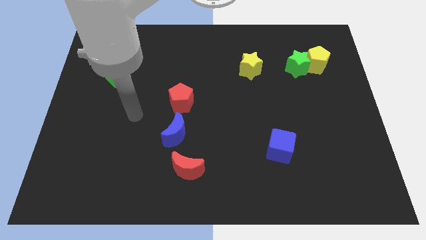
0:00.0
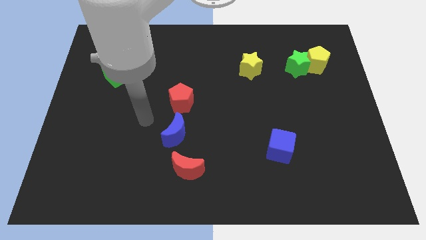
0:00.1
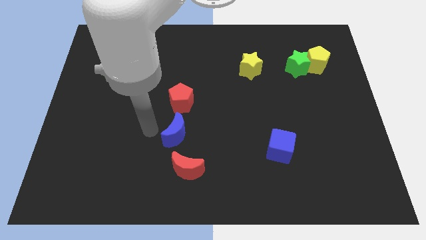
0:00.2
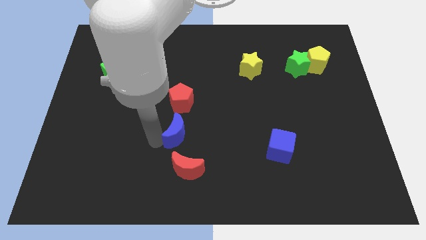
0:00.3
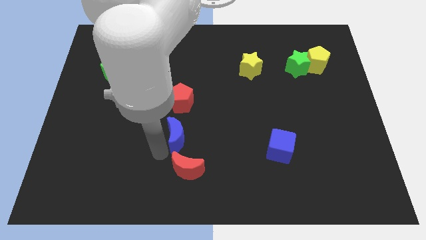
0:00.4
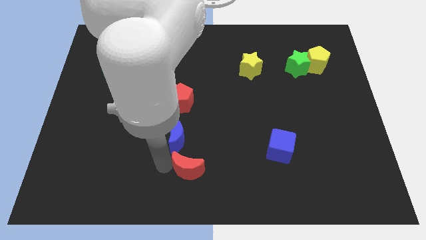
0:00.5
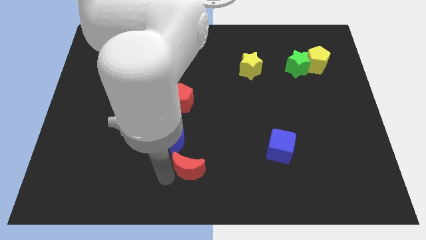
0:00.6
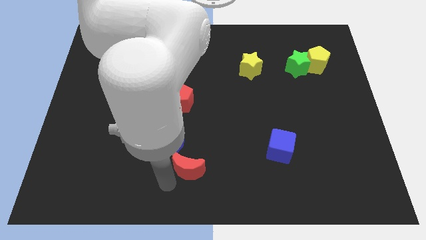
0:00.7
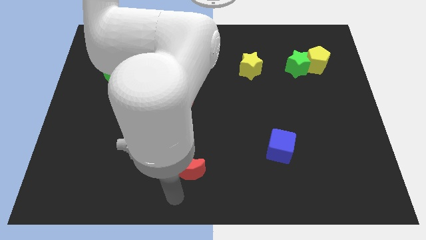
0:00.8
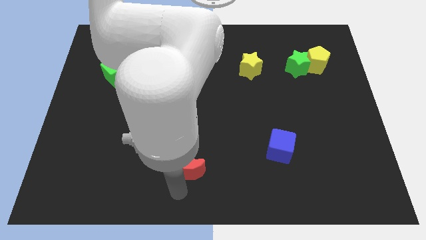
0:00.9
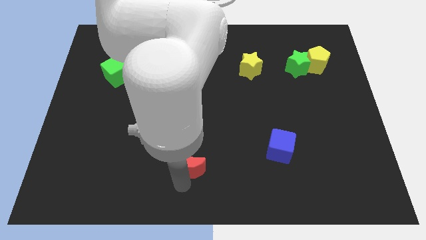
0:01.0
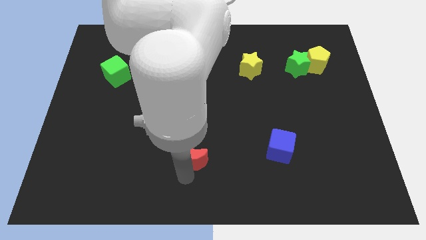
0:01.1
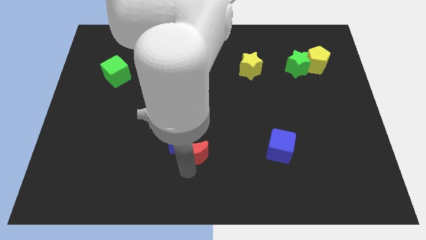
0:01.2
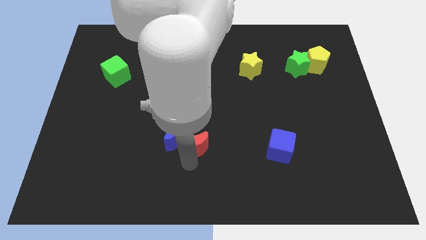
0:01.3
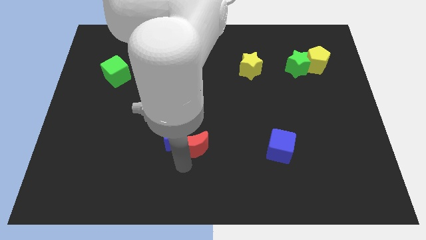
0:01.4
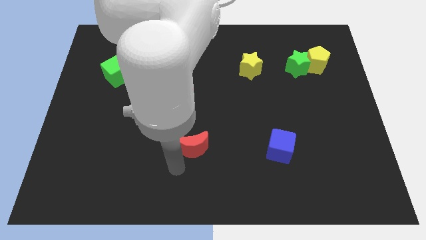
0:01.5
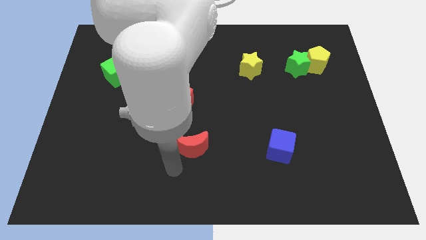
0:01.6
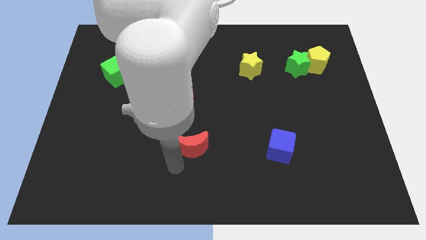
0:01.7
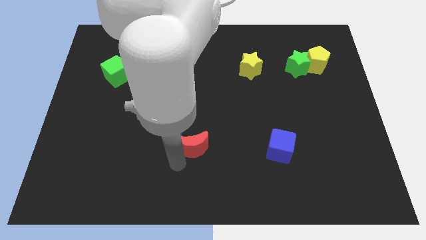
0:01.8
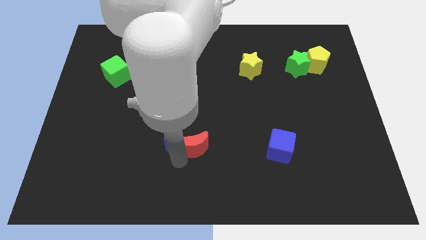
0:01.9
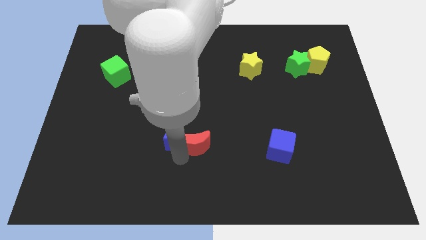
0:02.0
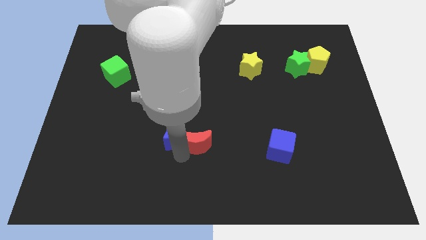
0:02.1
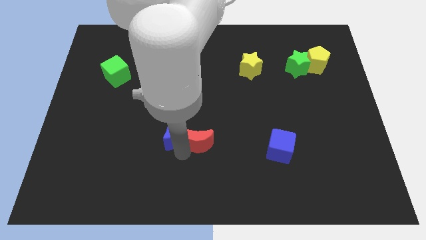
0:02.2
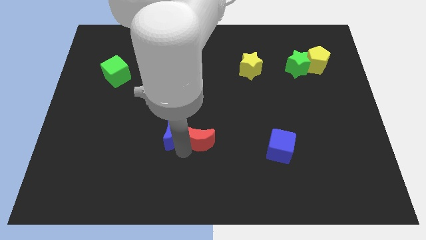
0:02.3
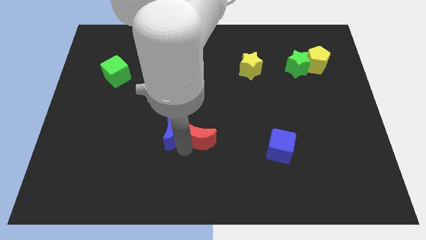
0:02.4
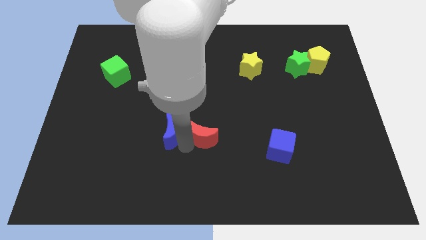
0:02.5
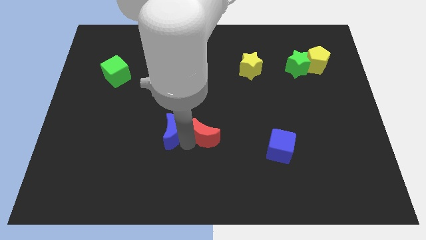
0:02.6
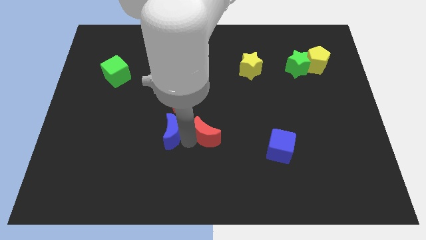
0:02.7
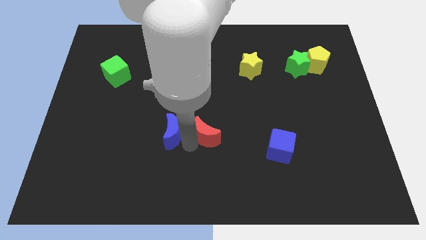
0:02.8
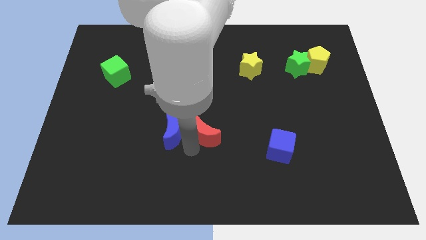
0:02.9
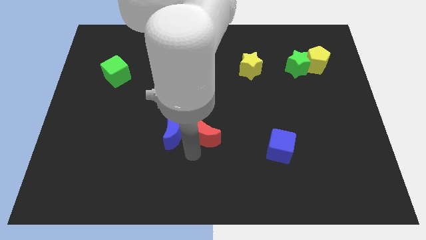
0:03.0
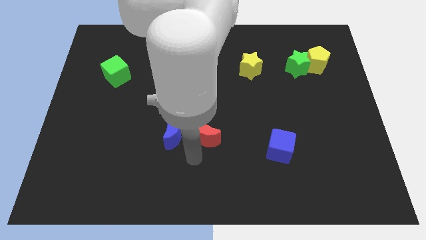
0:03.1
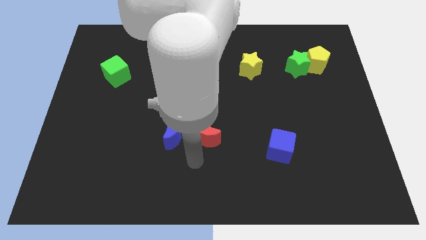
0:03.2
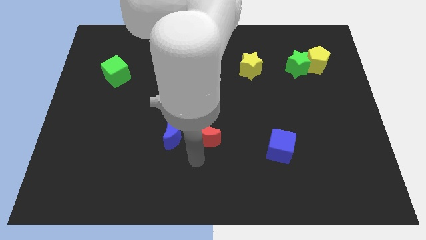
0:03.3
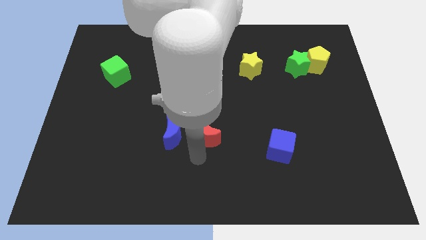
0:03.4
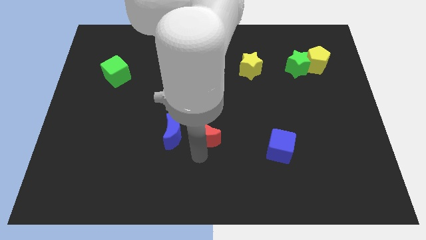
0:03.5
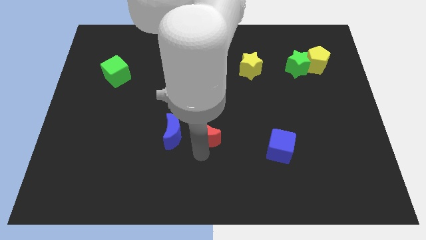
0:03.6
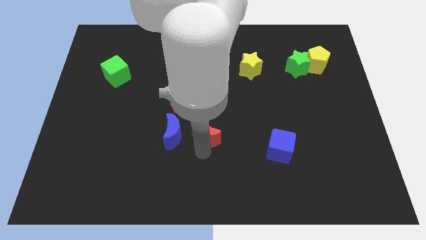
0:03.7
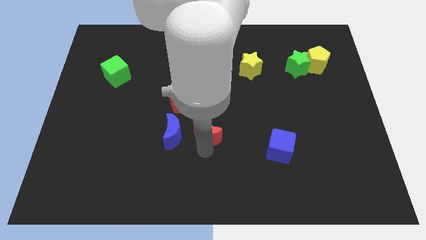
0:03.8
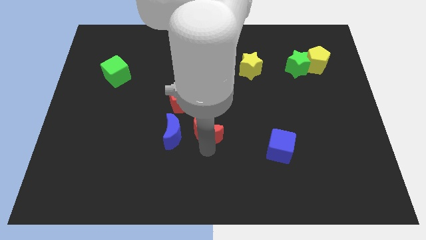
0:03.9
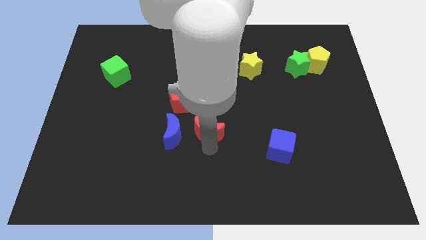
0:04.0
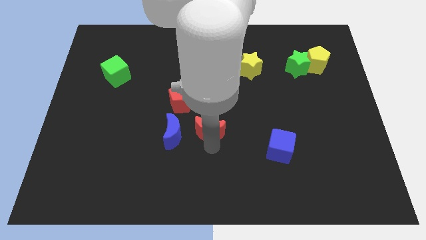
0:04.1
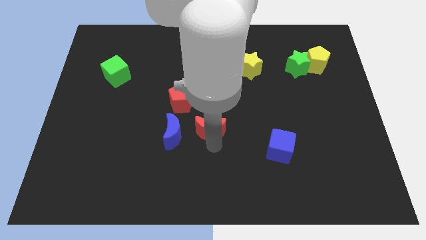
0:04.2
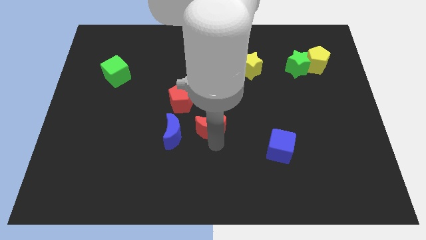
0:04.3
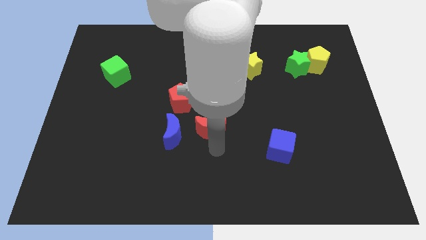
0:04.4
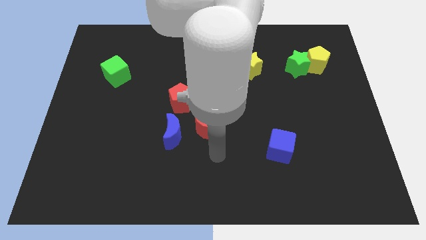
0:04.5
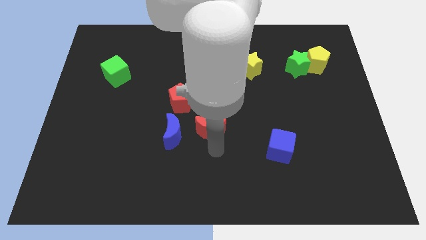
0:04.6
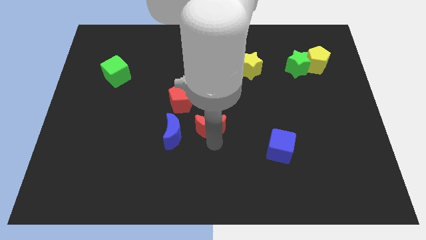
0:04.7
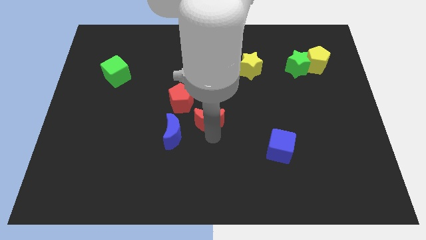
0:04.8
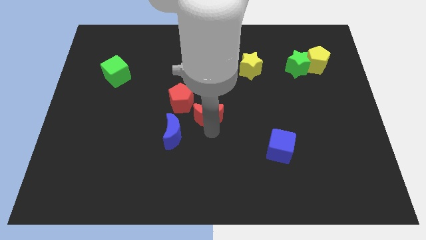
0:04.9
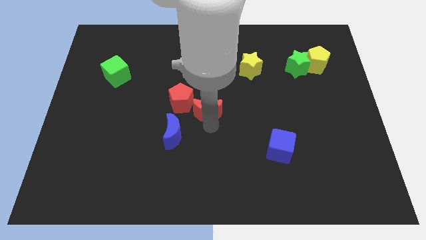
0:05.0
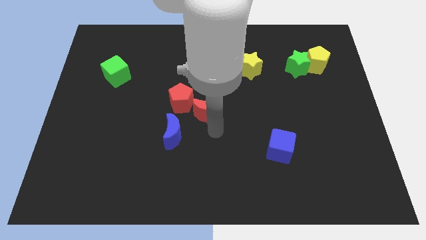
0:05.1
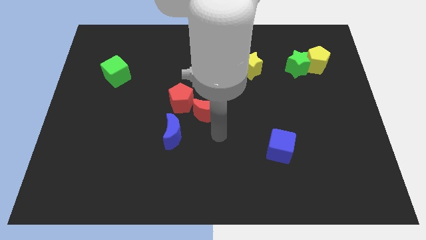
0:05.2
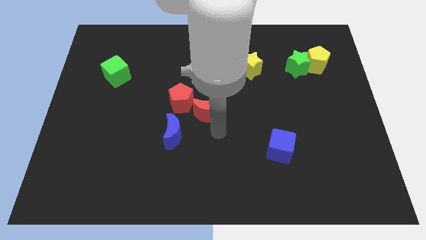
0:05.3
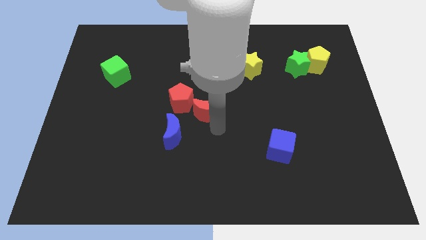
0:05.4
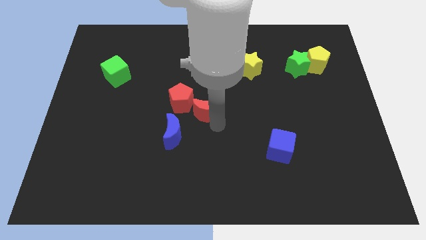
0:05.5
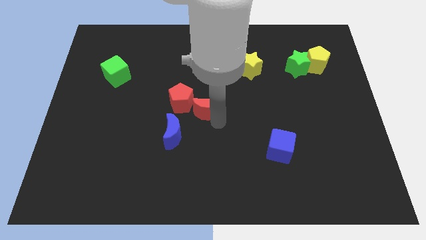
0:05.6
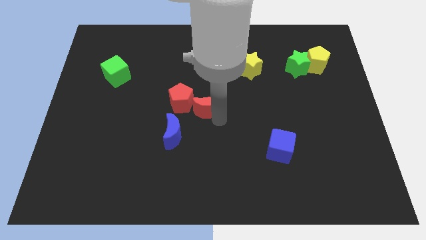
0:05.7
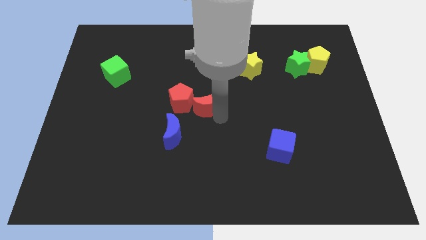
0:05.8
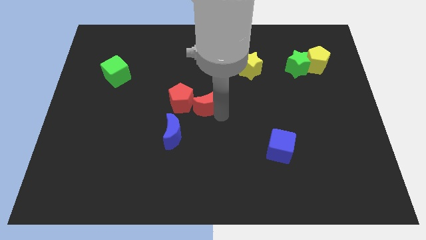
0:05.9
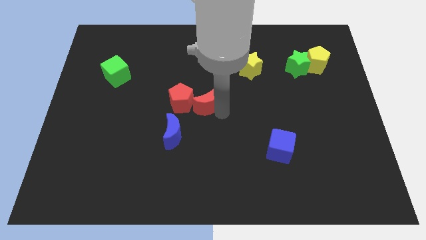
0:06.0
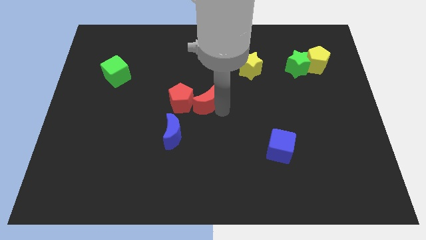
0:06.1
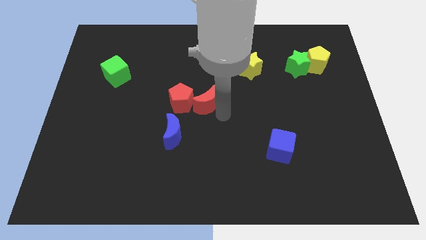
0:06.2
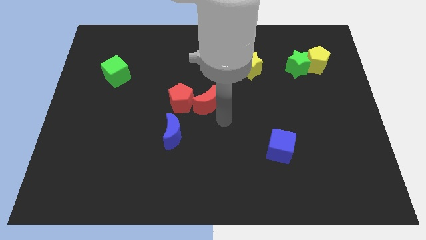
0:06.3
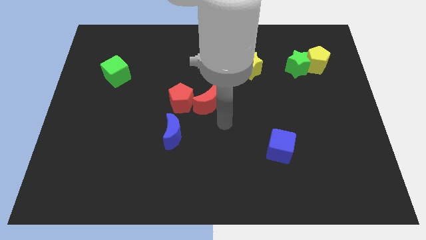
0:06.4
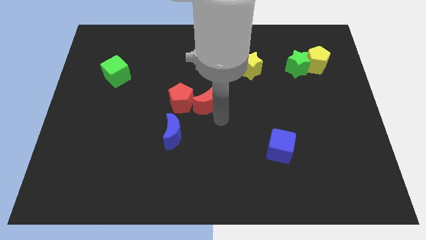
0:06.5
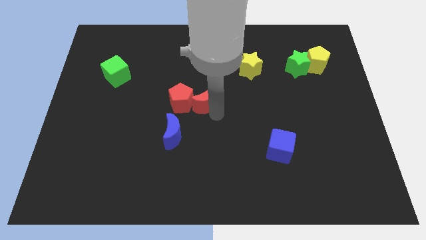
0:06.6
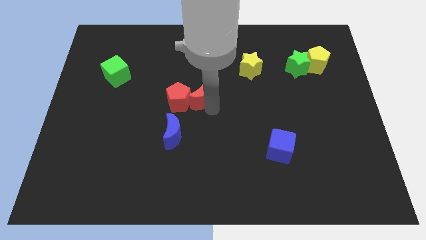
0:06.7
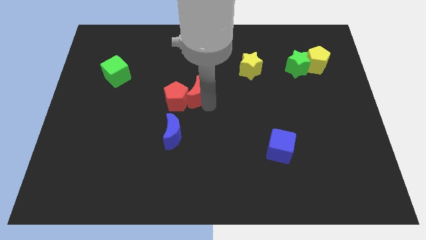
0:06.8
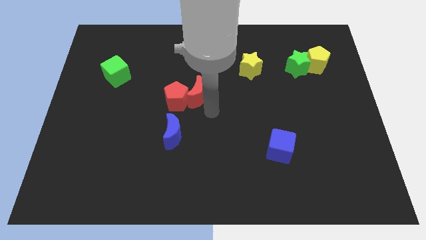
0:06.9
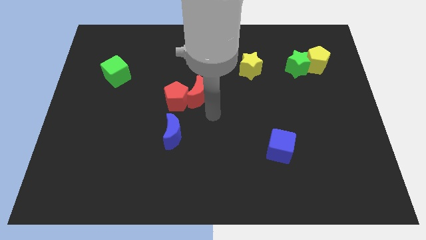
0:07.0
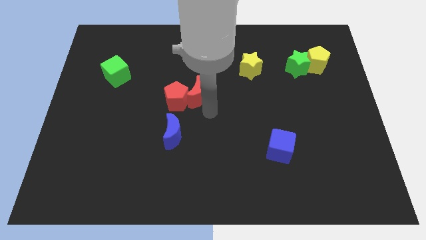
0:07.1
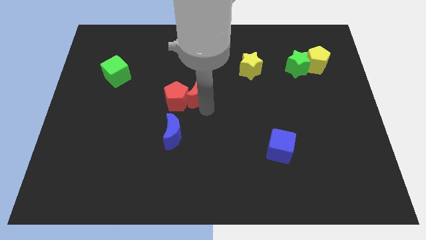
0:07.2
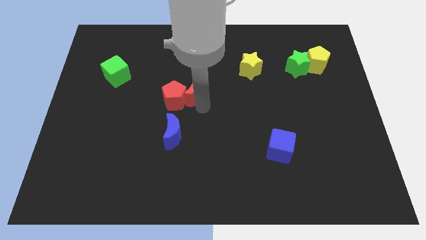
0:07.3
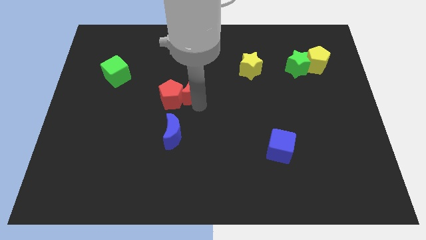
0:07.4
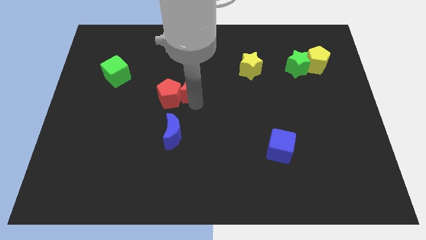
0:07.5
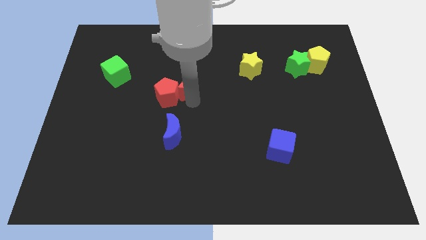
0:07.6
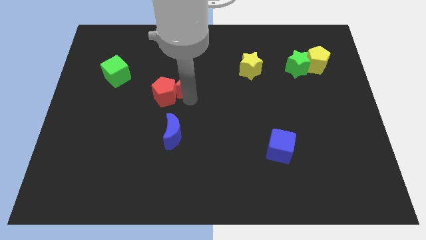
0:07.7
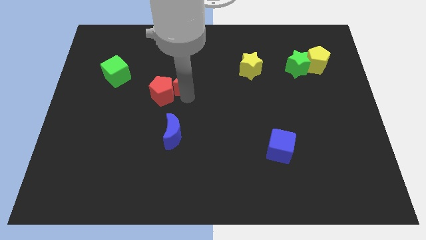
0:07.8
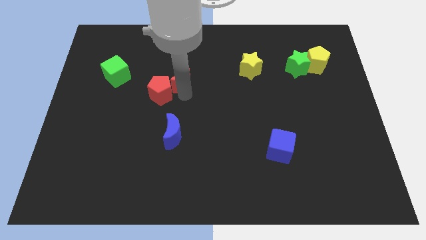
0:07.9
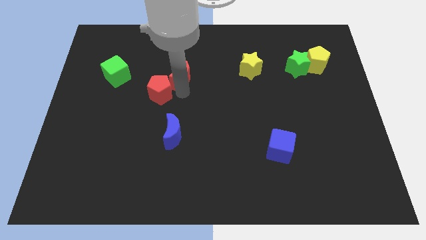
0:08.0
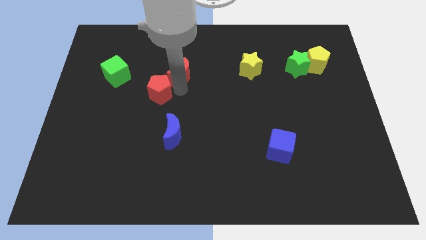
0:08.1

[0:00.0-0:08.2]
push the red moon to the top of the red pentagon
